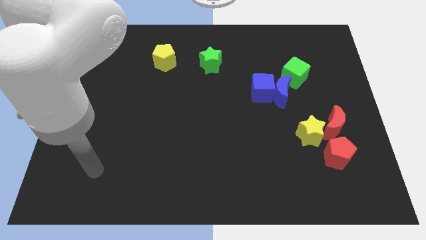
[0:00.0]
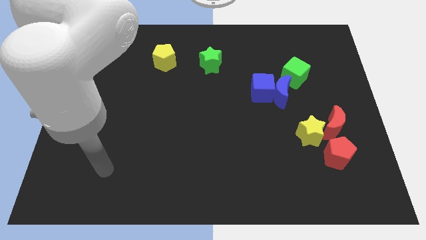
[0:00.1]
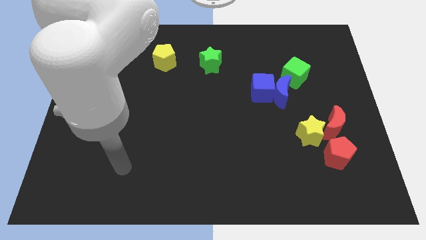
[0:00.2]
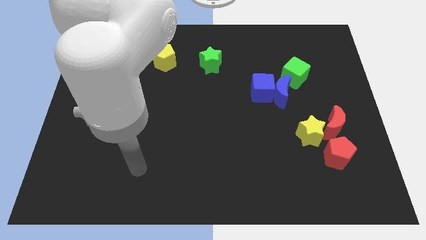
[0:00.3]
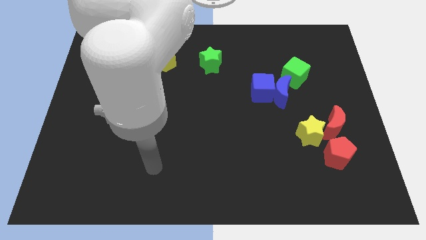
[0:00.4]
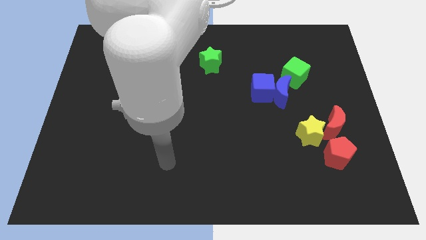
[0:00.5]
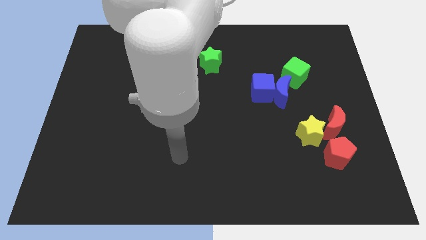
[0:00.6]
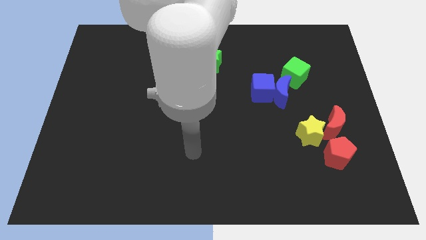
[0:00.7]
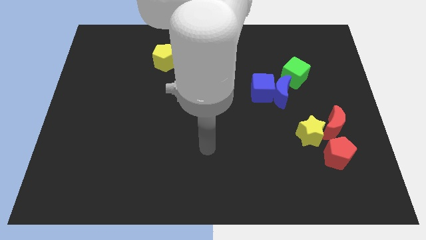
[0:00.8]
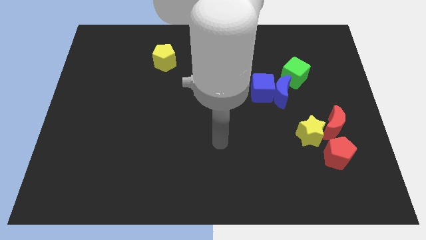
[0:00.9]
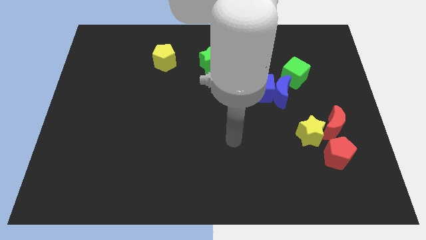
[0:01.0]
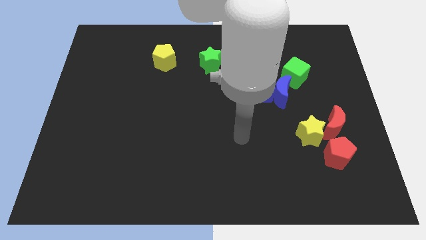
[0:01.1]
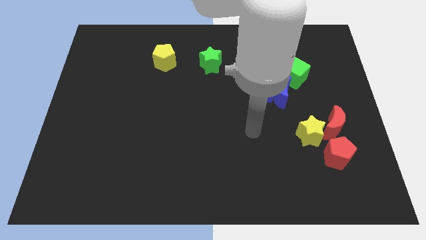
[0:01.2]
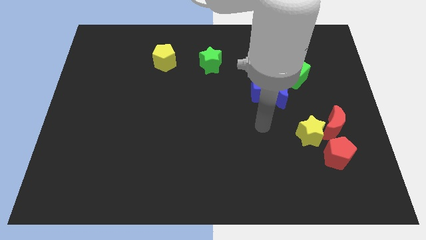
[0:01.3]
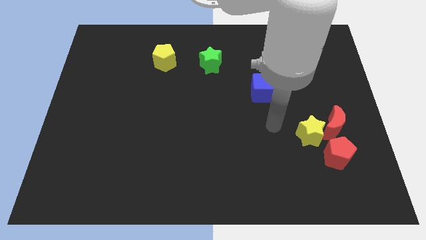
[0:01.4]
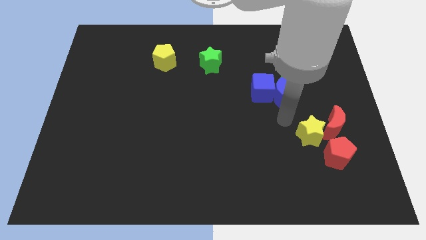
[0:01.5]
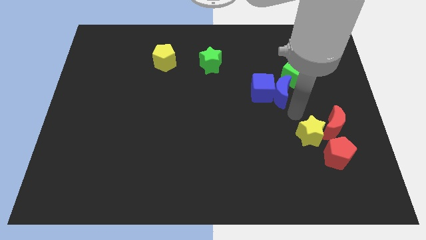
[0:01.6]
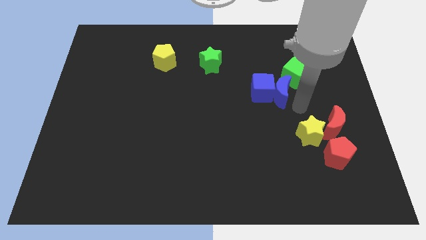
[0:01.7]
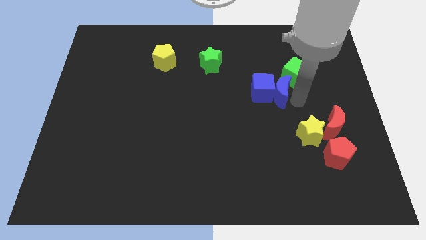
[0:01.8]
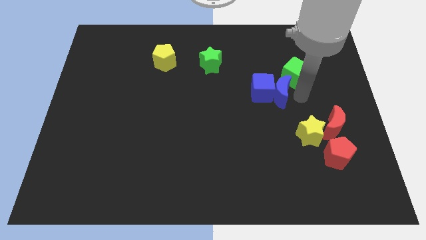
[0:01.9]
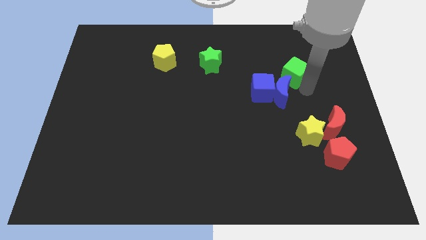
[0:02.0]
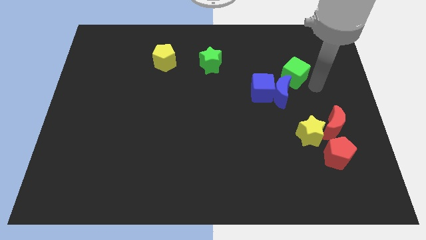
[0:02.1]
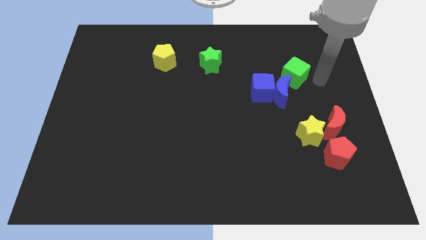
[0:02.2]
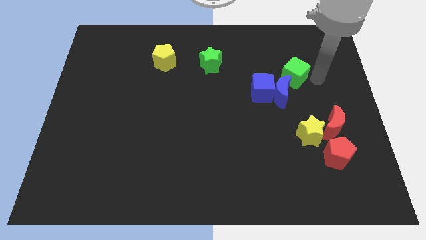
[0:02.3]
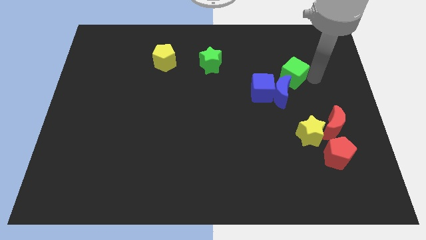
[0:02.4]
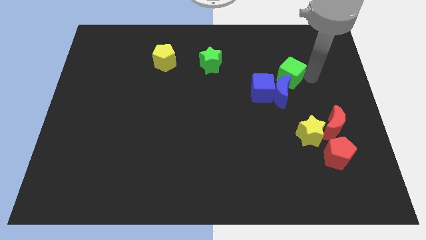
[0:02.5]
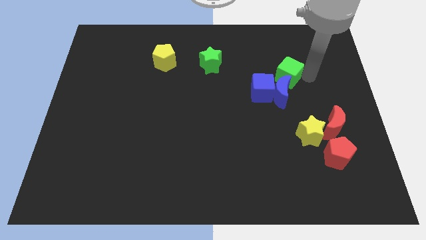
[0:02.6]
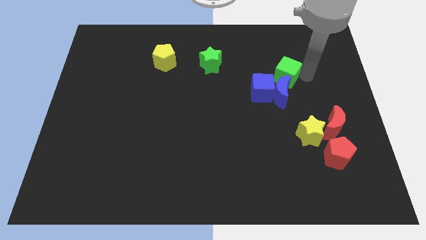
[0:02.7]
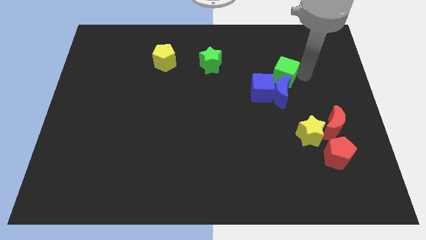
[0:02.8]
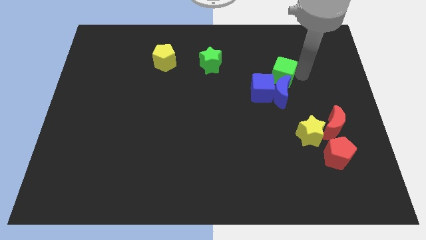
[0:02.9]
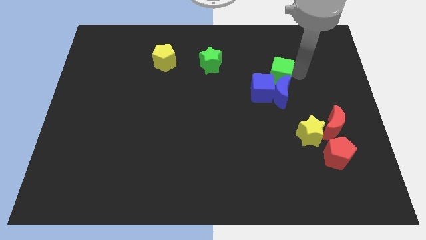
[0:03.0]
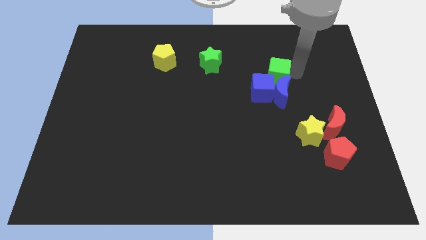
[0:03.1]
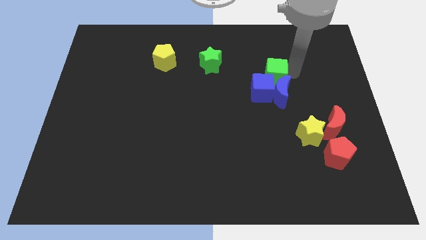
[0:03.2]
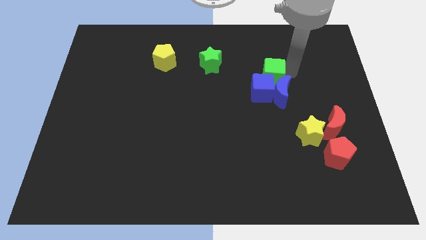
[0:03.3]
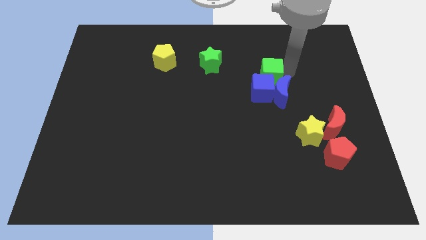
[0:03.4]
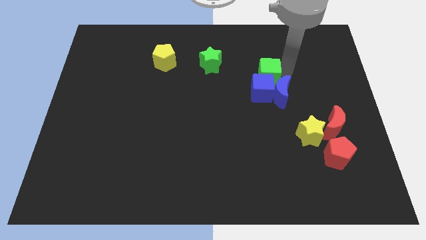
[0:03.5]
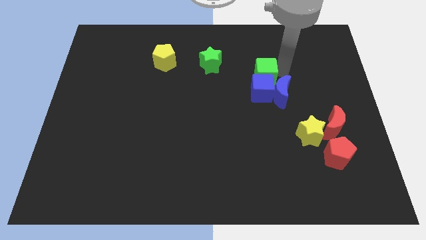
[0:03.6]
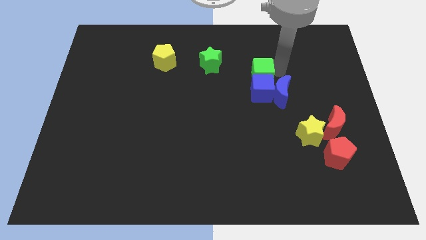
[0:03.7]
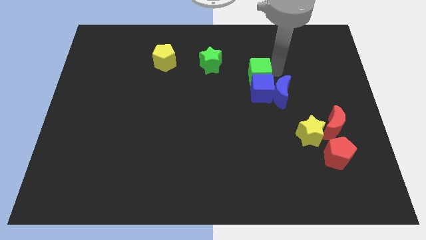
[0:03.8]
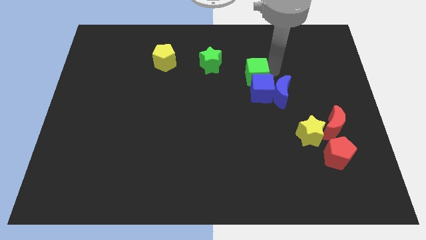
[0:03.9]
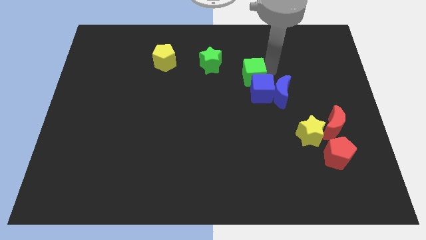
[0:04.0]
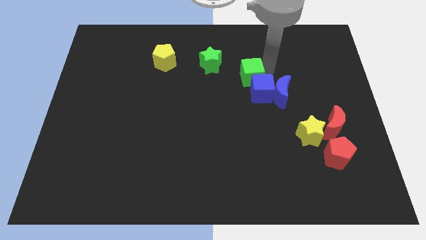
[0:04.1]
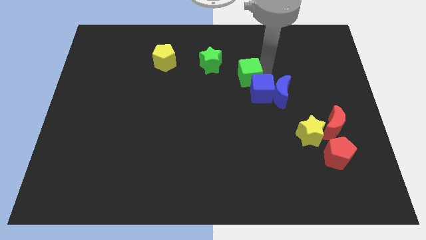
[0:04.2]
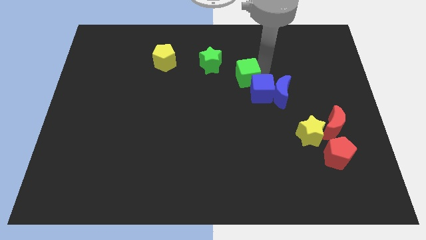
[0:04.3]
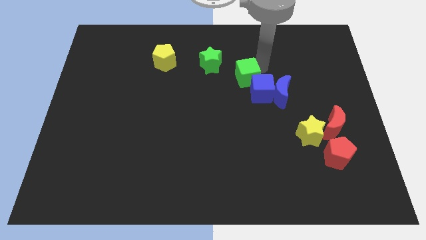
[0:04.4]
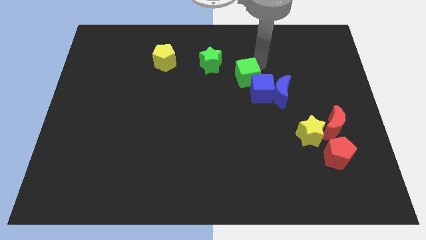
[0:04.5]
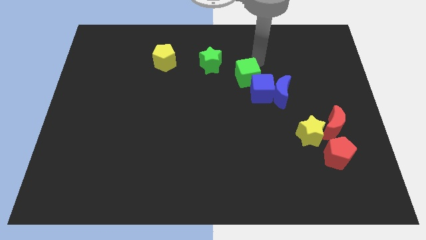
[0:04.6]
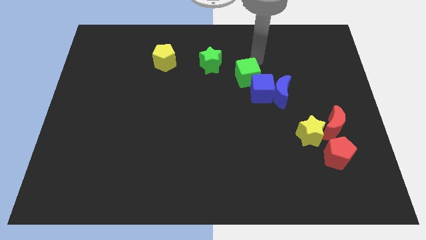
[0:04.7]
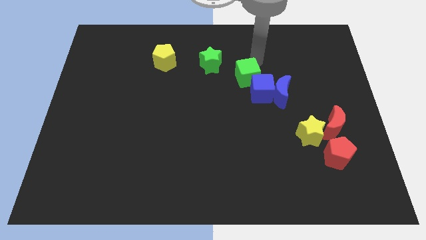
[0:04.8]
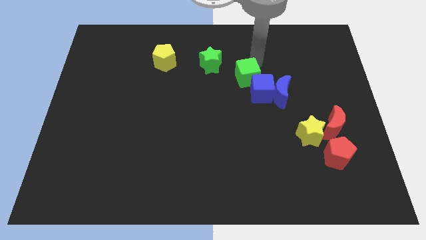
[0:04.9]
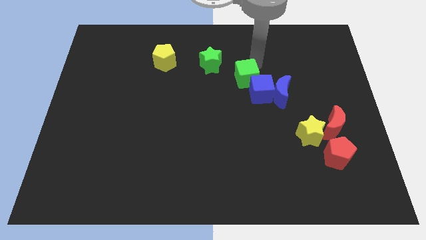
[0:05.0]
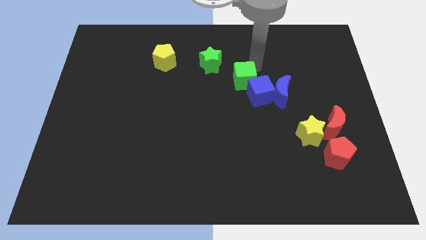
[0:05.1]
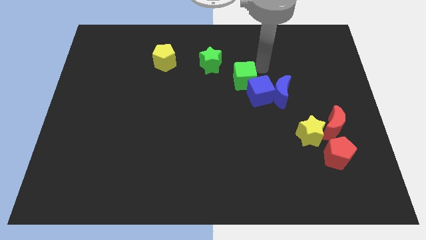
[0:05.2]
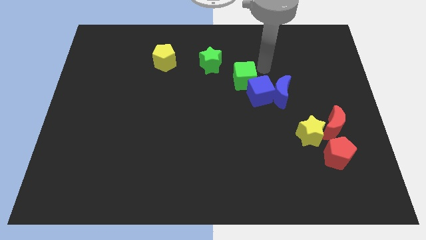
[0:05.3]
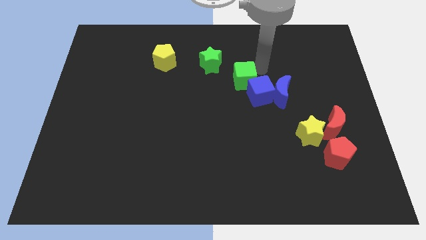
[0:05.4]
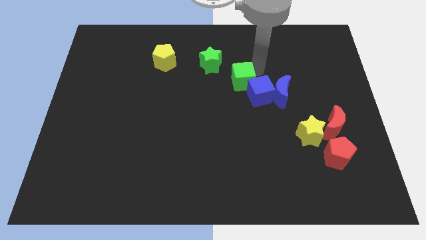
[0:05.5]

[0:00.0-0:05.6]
put the green cube left of the blue cube

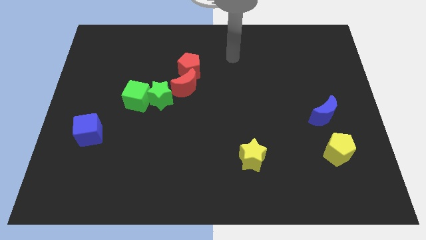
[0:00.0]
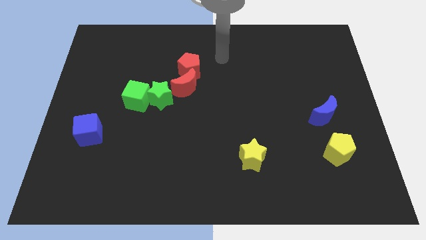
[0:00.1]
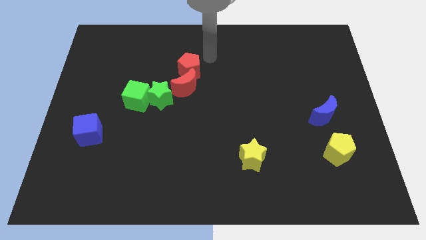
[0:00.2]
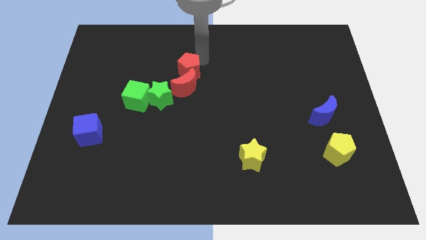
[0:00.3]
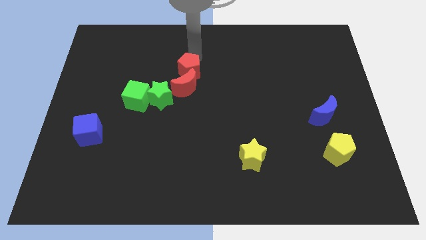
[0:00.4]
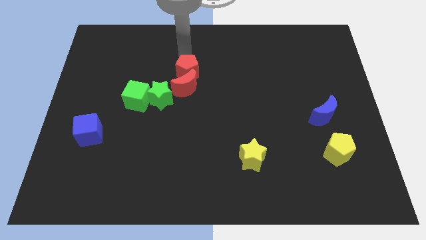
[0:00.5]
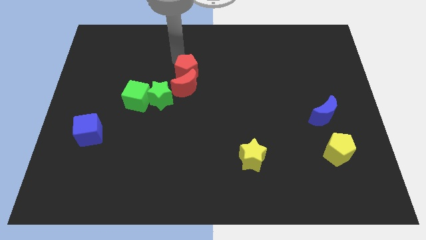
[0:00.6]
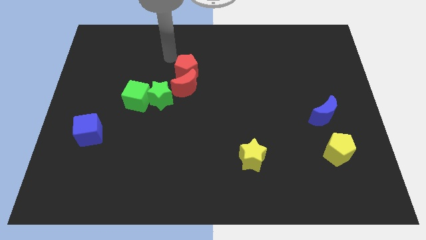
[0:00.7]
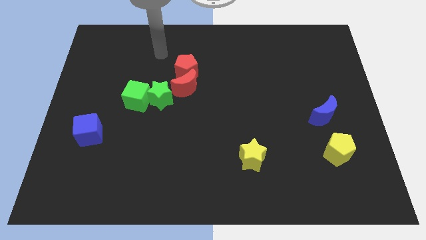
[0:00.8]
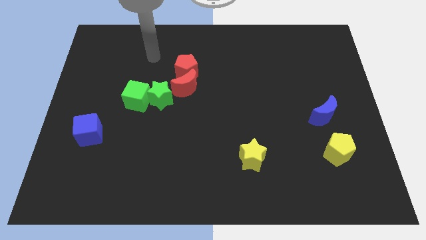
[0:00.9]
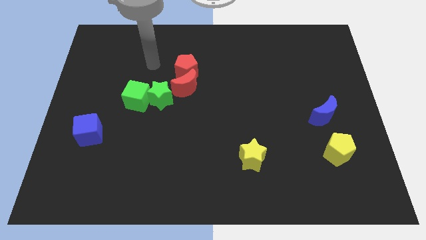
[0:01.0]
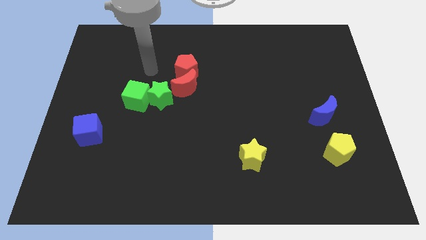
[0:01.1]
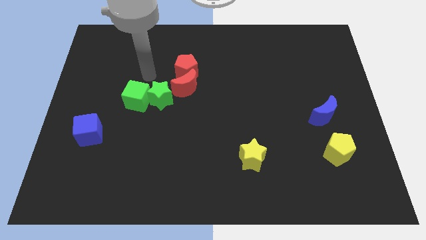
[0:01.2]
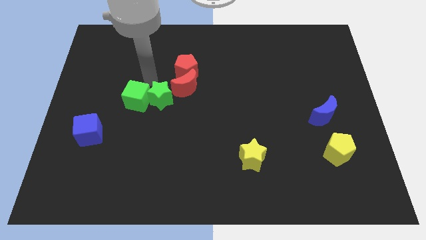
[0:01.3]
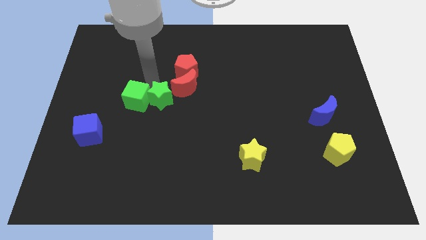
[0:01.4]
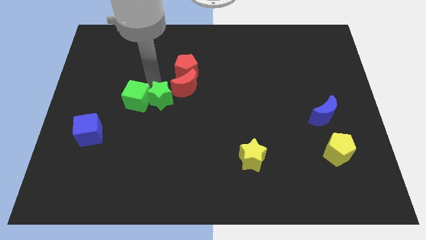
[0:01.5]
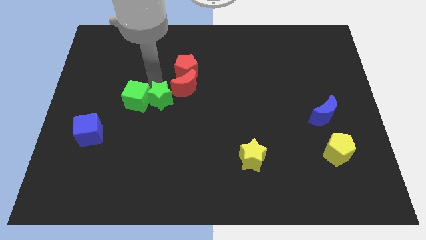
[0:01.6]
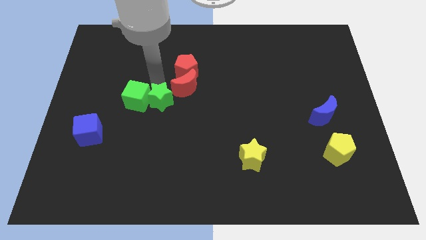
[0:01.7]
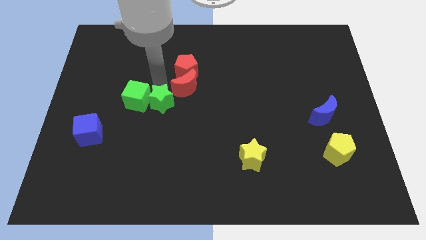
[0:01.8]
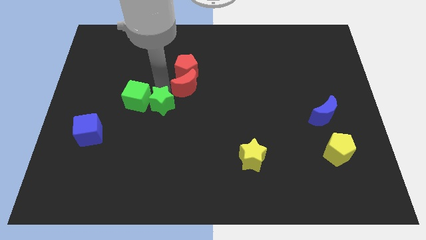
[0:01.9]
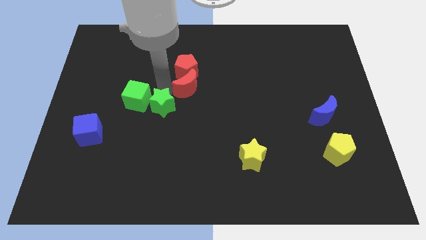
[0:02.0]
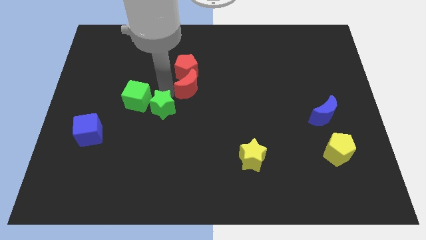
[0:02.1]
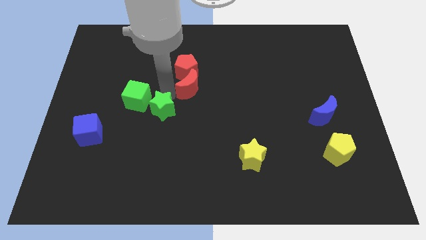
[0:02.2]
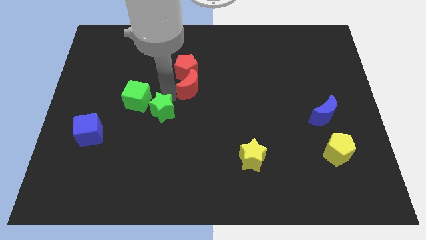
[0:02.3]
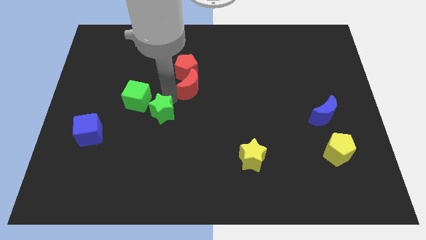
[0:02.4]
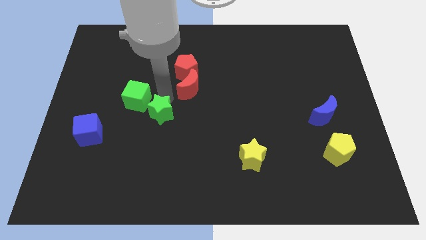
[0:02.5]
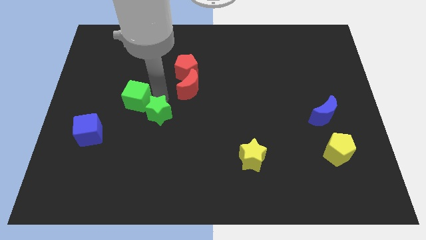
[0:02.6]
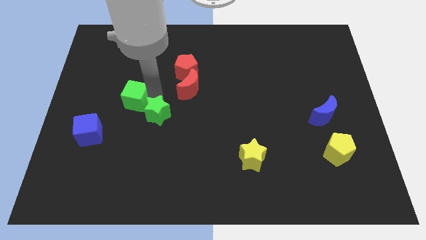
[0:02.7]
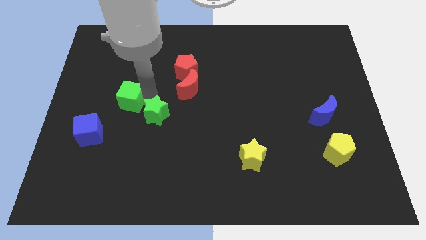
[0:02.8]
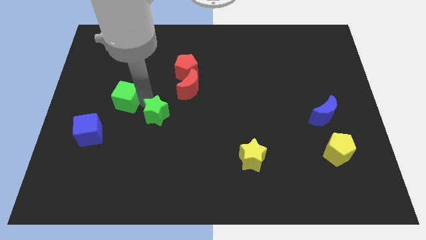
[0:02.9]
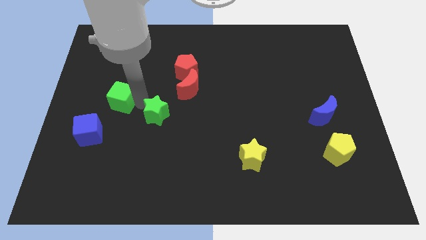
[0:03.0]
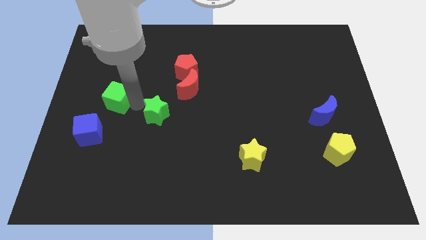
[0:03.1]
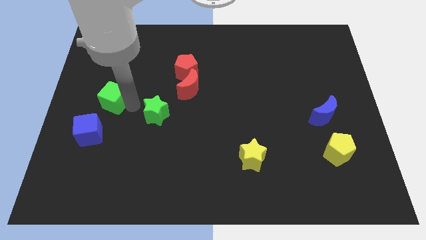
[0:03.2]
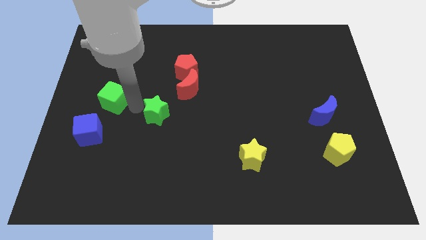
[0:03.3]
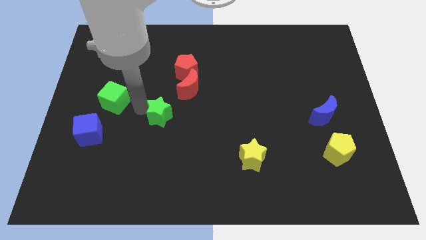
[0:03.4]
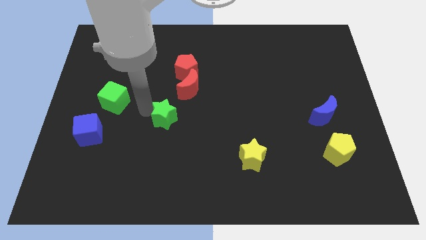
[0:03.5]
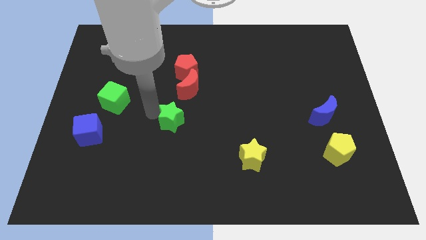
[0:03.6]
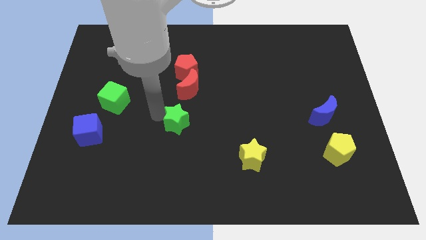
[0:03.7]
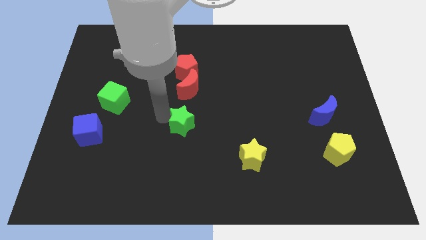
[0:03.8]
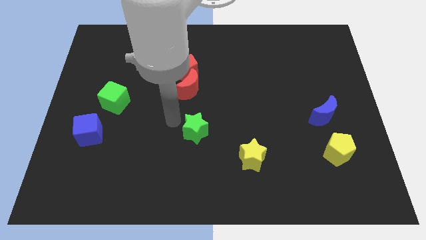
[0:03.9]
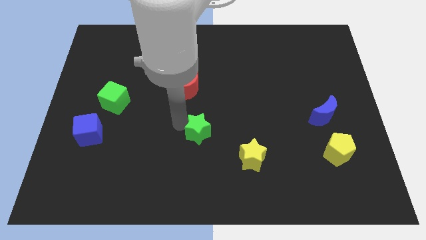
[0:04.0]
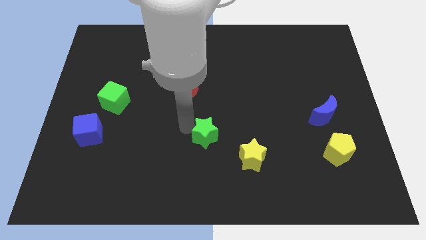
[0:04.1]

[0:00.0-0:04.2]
put the green star diagonally up and to the left of the yellow star
